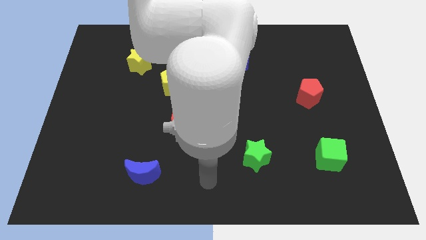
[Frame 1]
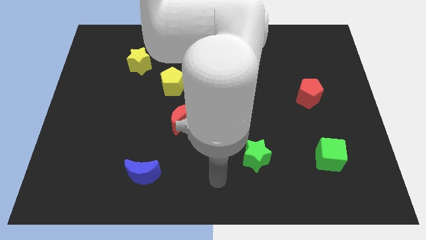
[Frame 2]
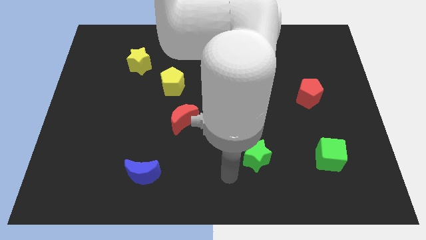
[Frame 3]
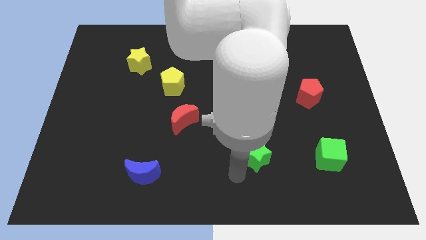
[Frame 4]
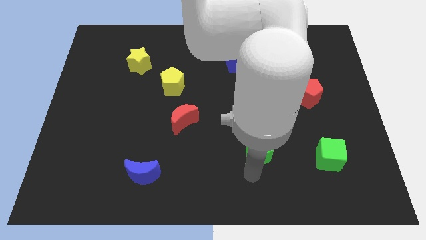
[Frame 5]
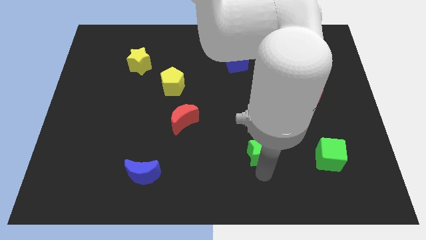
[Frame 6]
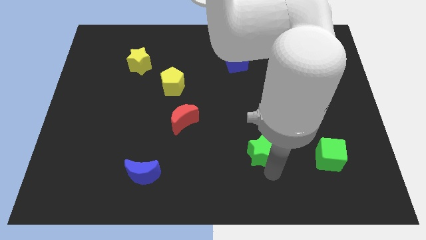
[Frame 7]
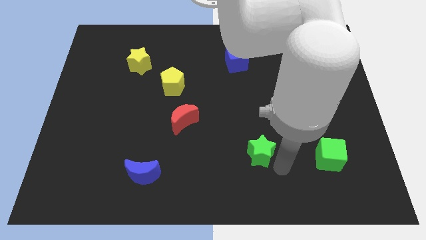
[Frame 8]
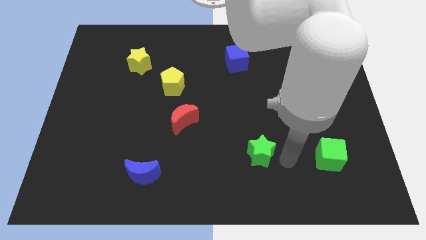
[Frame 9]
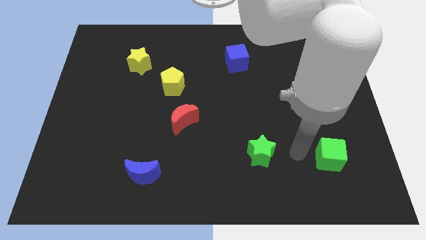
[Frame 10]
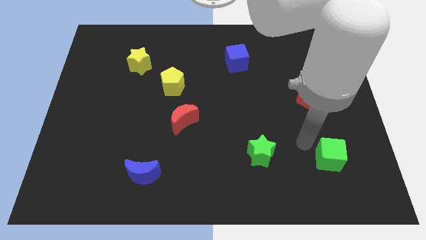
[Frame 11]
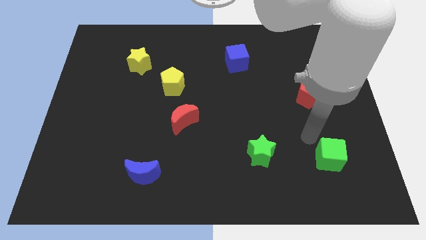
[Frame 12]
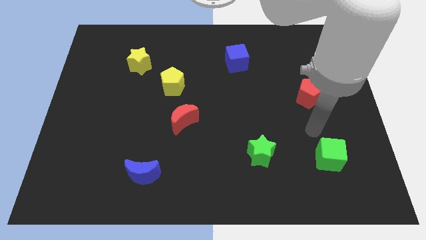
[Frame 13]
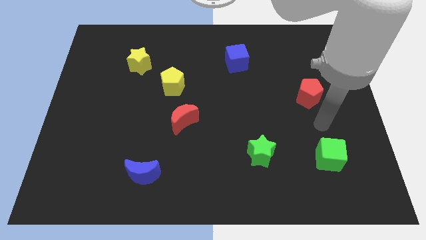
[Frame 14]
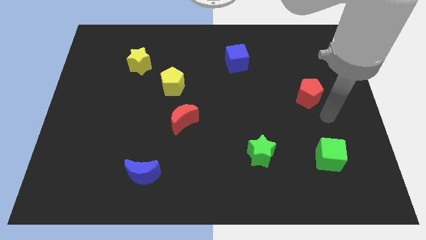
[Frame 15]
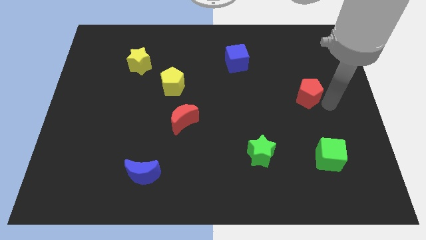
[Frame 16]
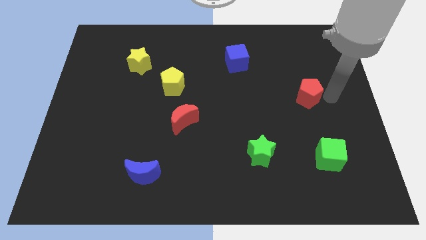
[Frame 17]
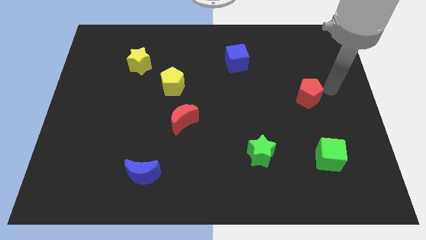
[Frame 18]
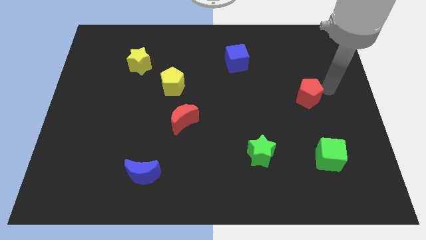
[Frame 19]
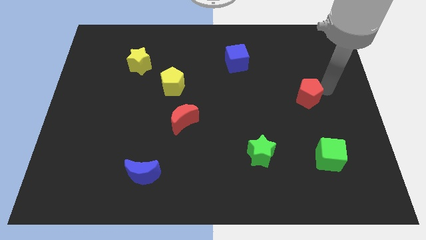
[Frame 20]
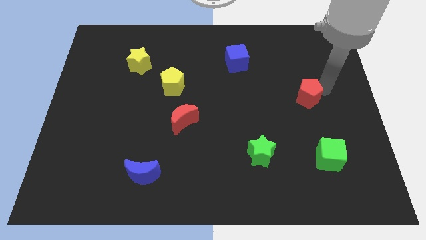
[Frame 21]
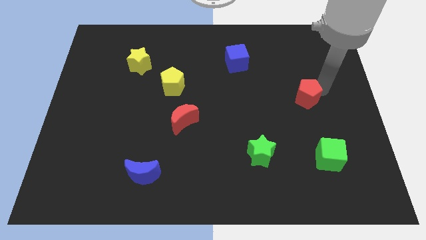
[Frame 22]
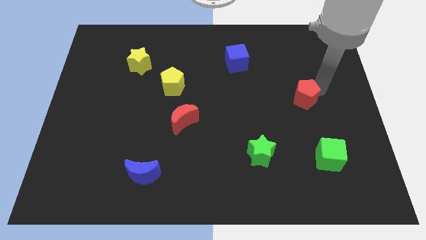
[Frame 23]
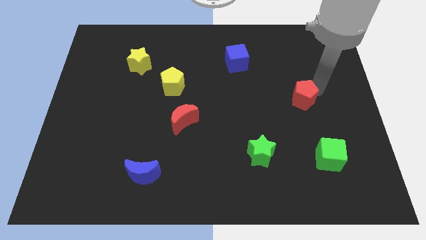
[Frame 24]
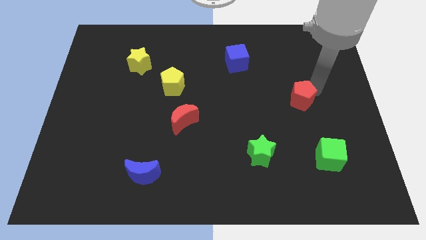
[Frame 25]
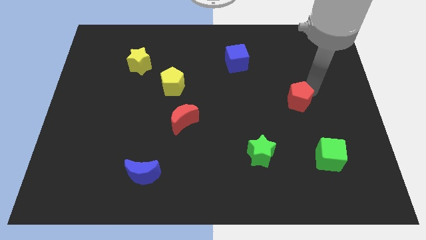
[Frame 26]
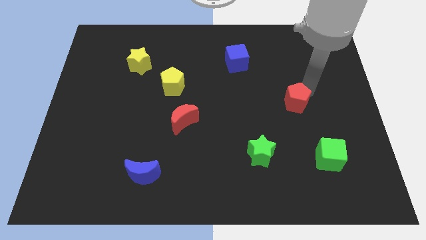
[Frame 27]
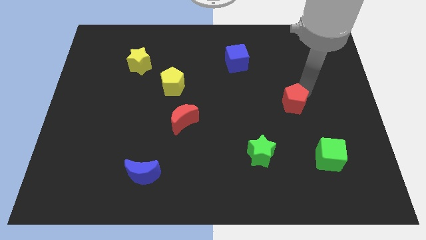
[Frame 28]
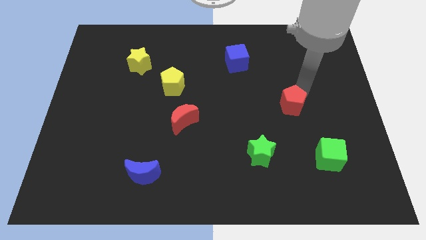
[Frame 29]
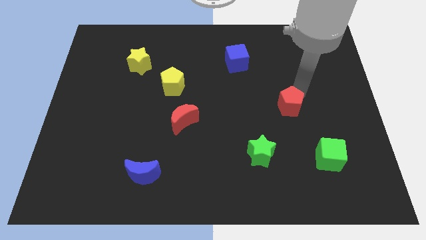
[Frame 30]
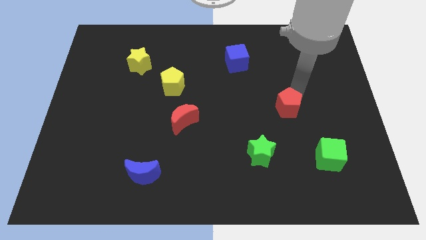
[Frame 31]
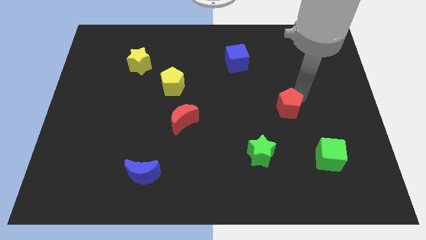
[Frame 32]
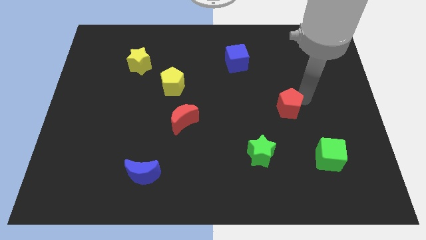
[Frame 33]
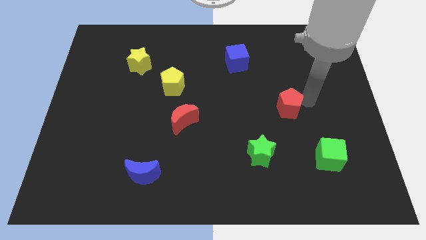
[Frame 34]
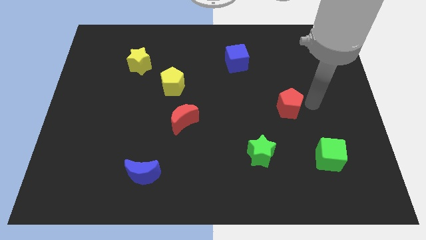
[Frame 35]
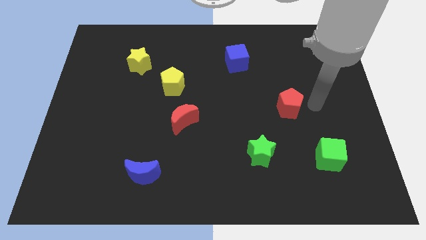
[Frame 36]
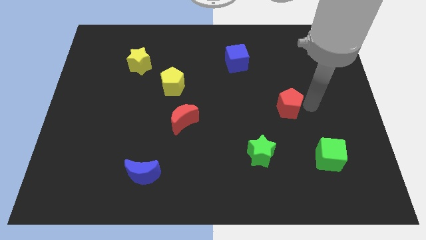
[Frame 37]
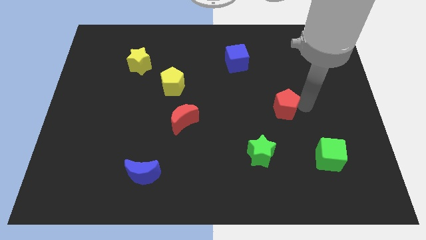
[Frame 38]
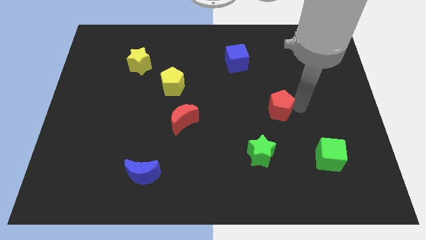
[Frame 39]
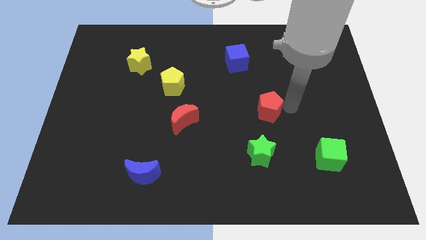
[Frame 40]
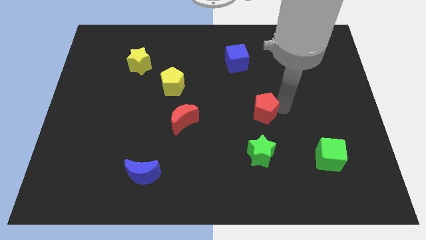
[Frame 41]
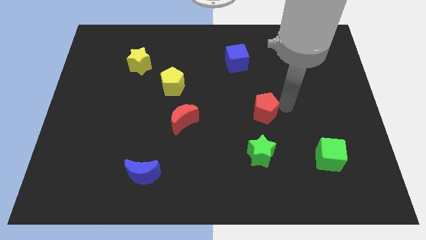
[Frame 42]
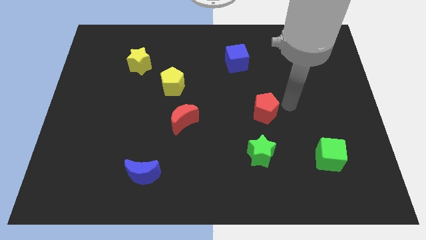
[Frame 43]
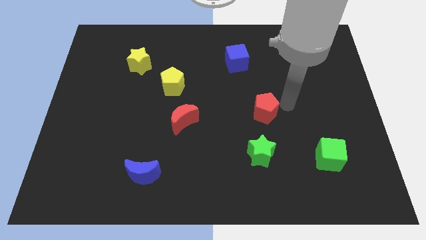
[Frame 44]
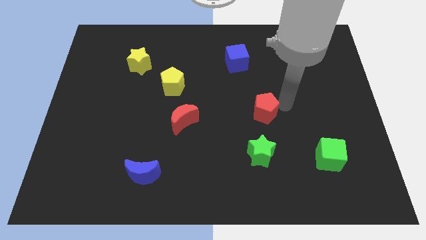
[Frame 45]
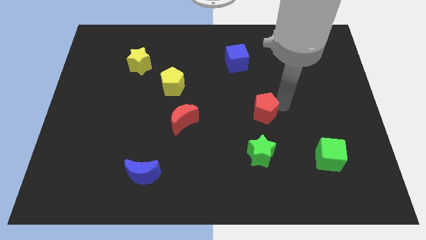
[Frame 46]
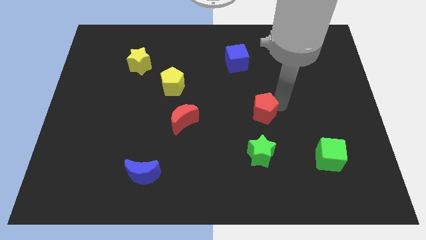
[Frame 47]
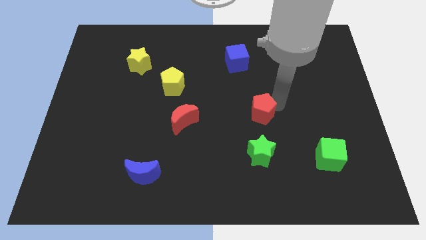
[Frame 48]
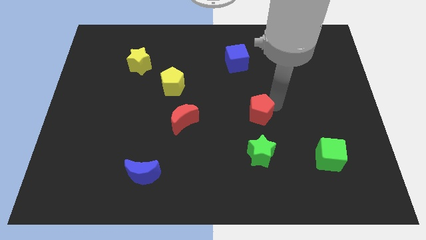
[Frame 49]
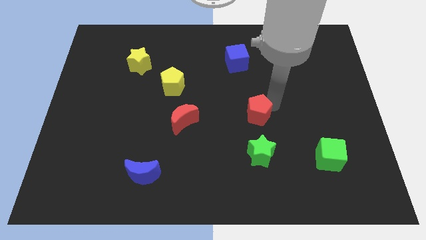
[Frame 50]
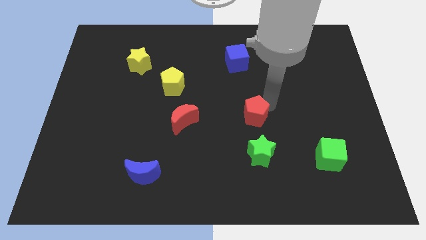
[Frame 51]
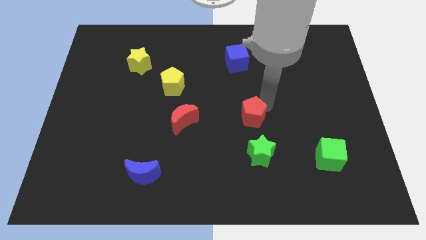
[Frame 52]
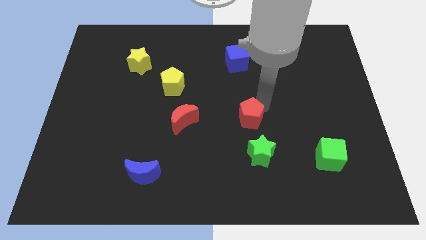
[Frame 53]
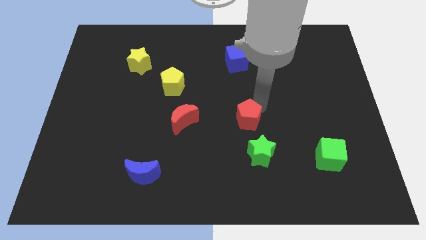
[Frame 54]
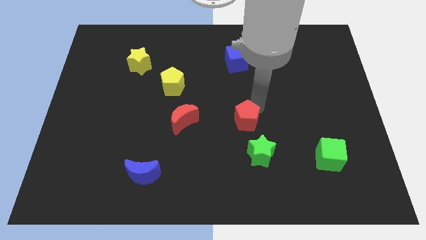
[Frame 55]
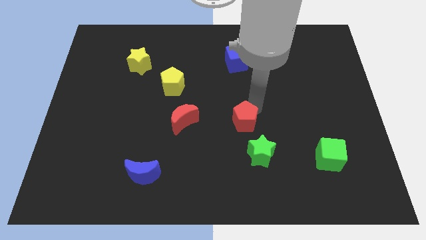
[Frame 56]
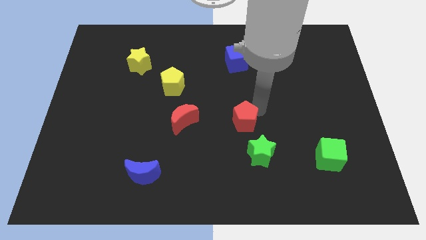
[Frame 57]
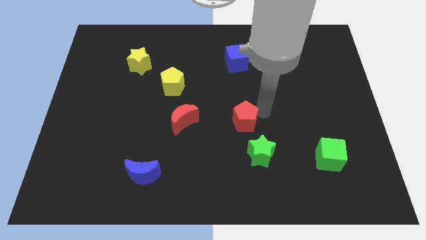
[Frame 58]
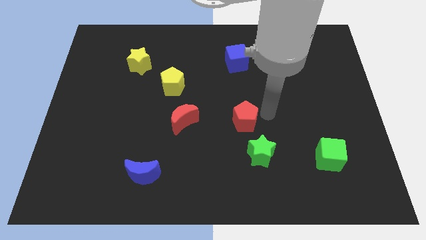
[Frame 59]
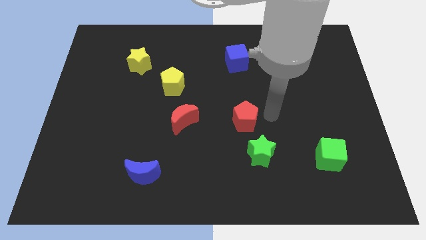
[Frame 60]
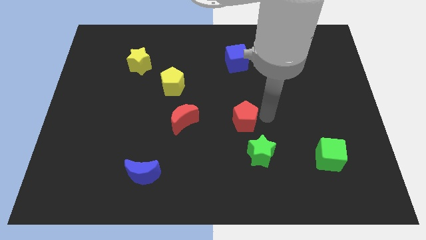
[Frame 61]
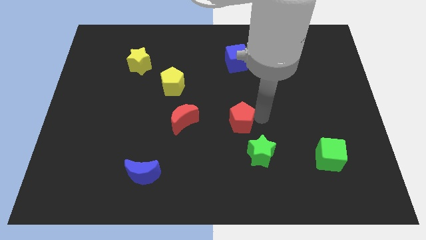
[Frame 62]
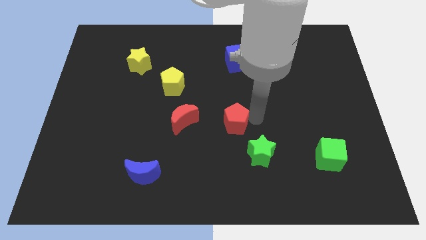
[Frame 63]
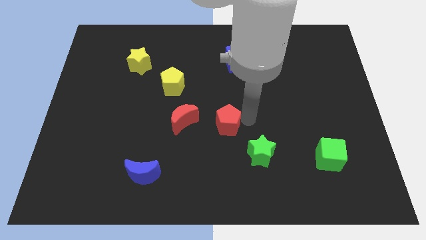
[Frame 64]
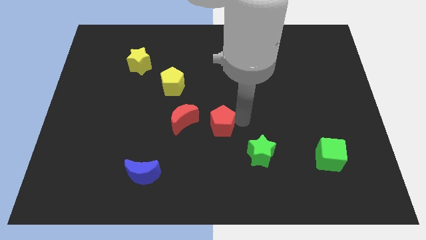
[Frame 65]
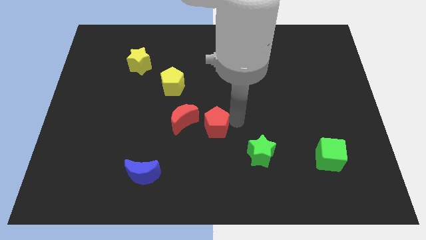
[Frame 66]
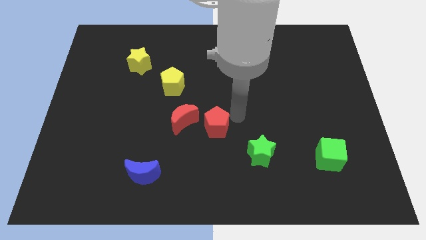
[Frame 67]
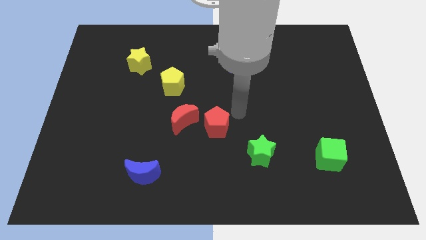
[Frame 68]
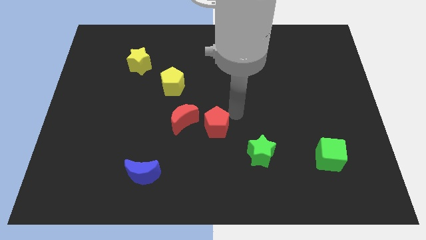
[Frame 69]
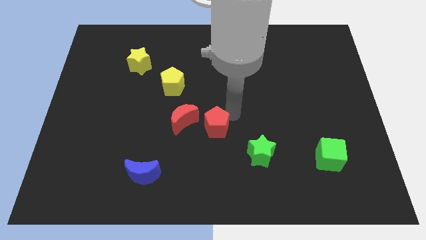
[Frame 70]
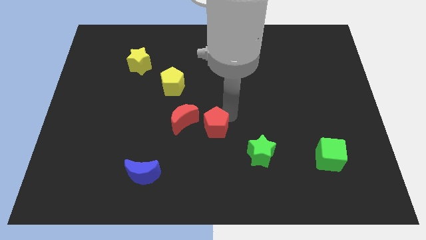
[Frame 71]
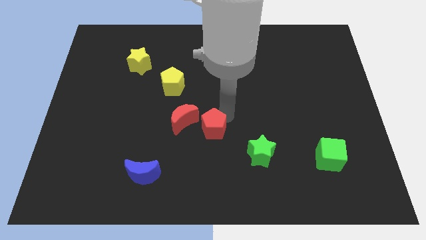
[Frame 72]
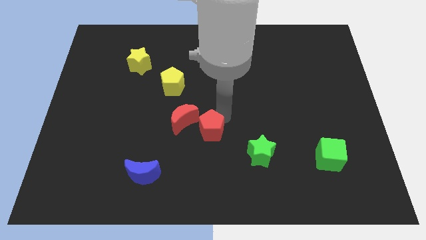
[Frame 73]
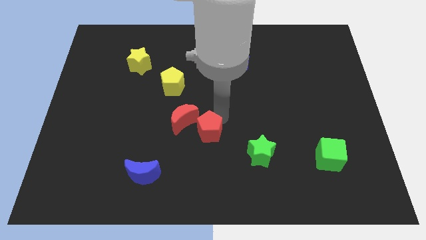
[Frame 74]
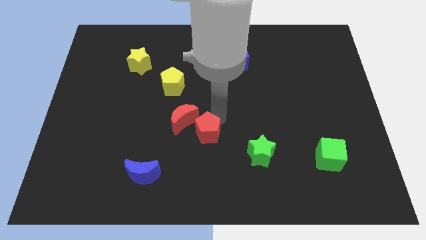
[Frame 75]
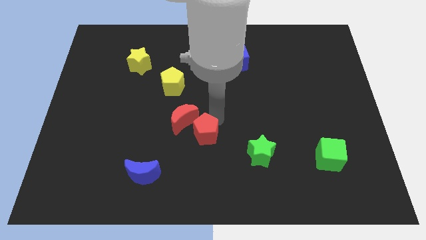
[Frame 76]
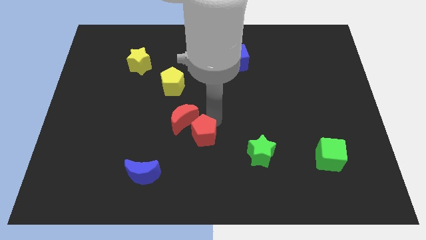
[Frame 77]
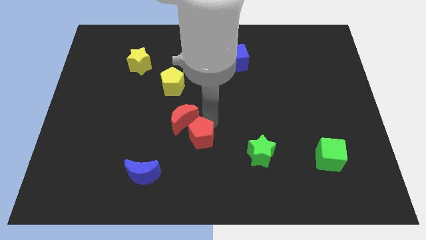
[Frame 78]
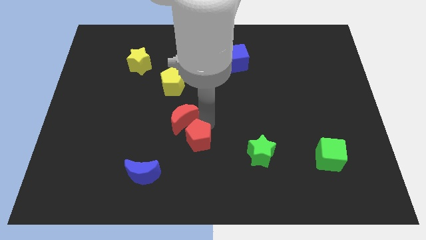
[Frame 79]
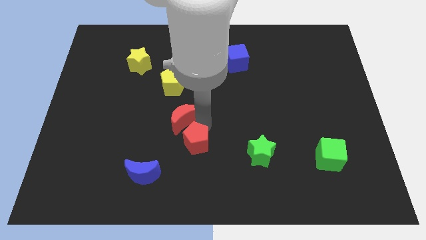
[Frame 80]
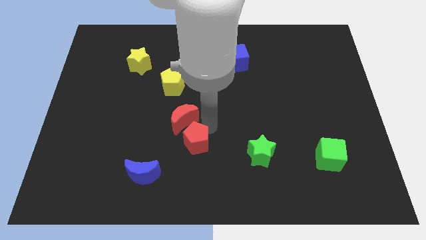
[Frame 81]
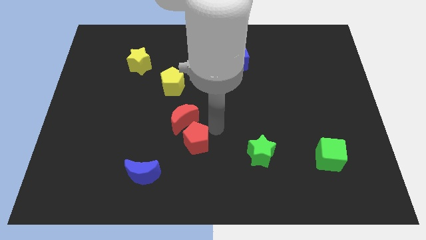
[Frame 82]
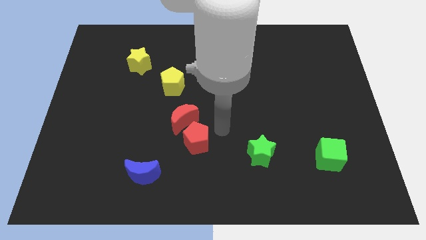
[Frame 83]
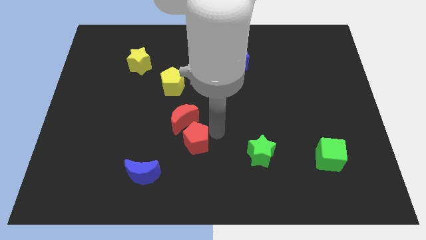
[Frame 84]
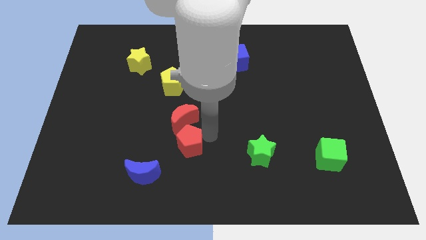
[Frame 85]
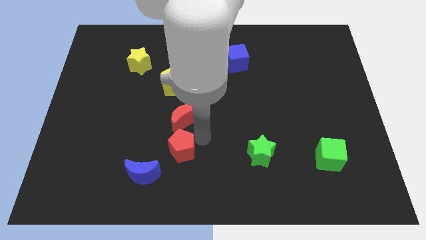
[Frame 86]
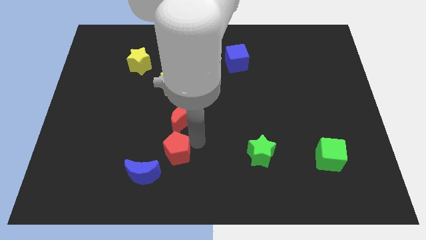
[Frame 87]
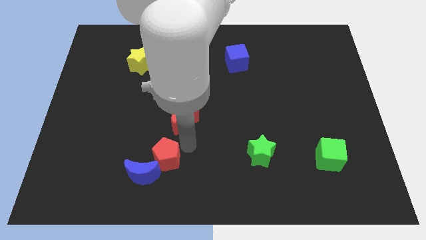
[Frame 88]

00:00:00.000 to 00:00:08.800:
push the red pentagon next to the blue moon
